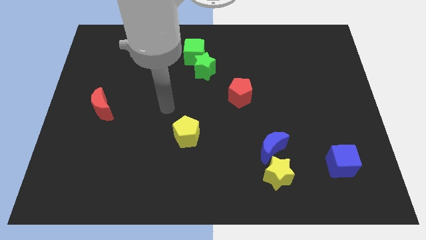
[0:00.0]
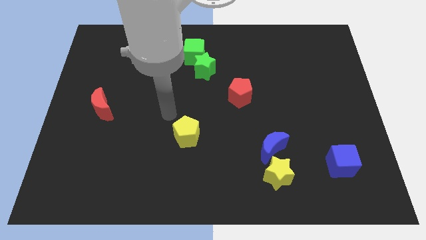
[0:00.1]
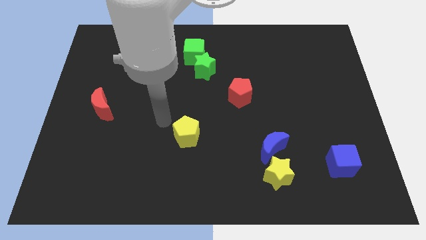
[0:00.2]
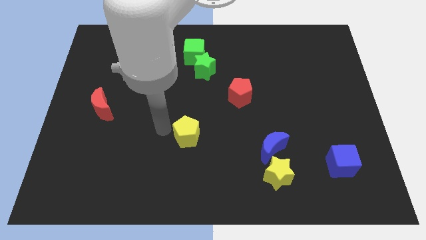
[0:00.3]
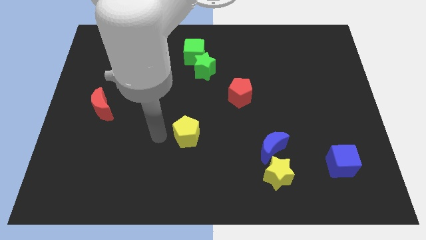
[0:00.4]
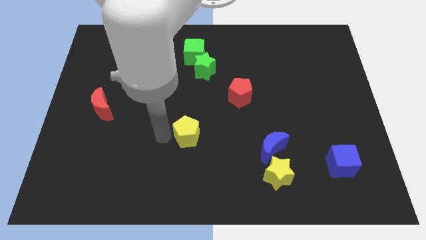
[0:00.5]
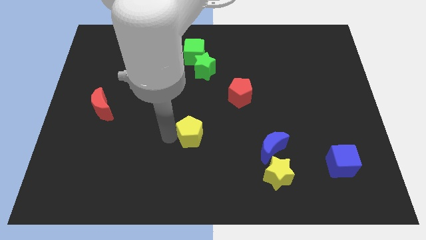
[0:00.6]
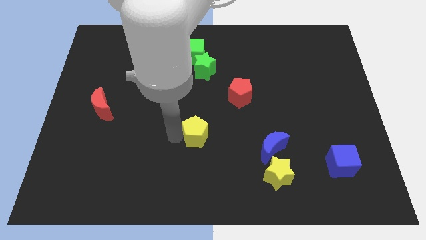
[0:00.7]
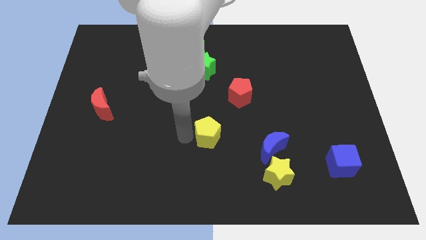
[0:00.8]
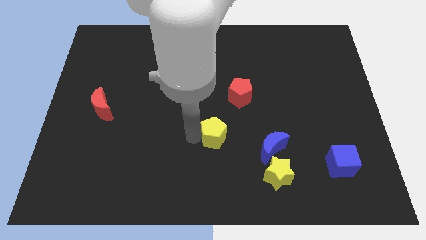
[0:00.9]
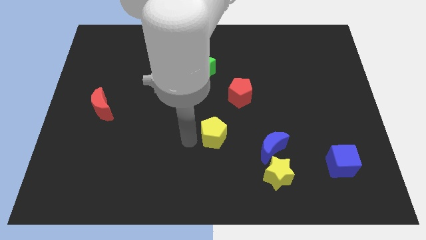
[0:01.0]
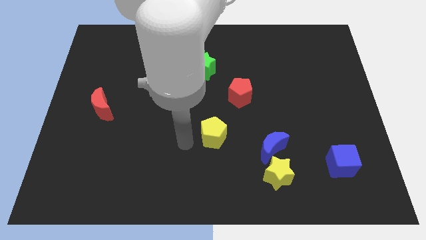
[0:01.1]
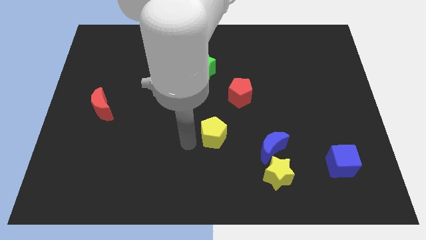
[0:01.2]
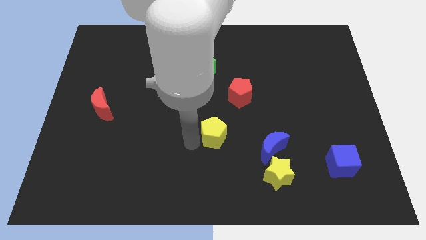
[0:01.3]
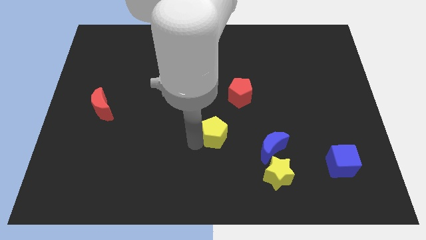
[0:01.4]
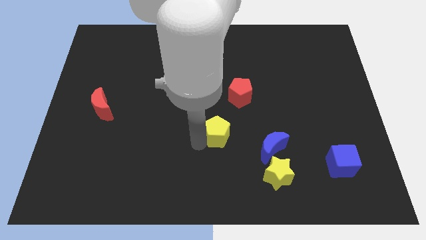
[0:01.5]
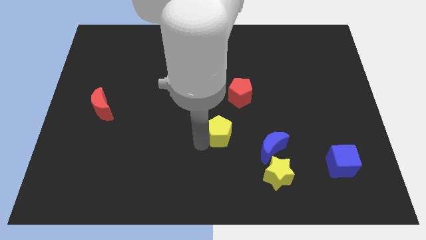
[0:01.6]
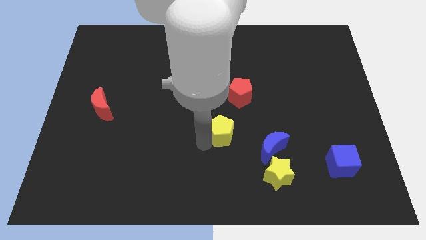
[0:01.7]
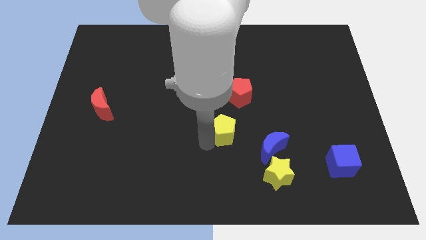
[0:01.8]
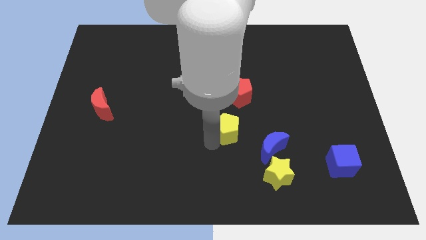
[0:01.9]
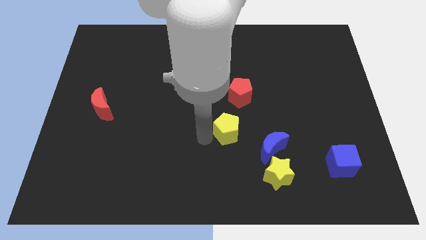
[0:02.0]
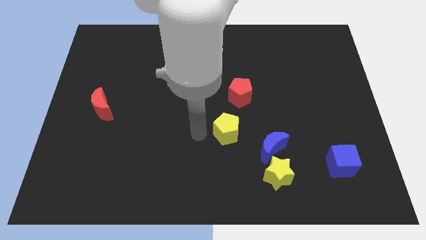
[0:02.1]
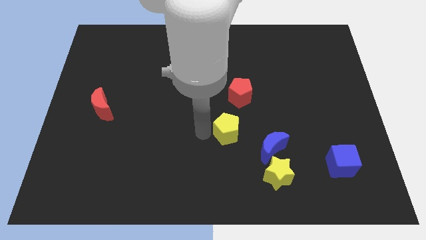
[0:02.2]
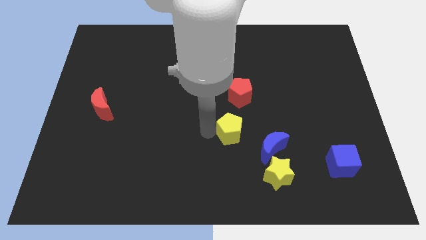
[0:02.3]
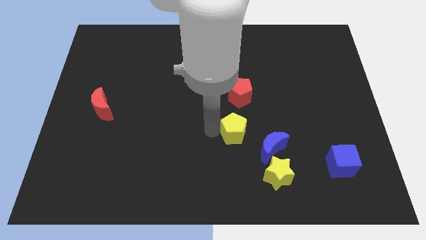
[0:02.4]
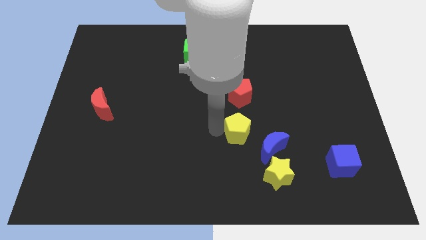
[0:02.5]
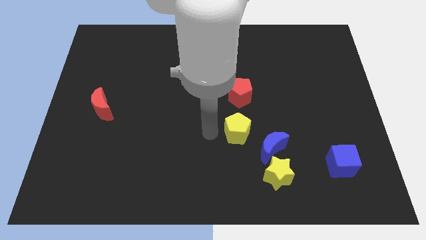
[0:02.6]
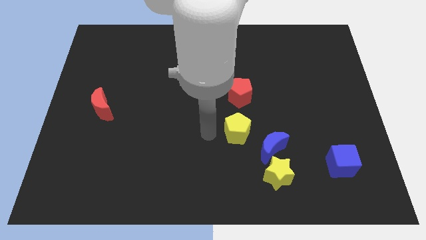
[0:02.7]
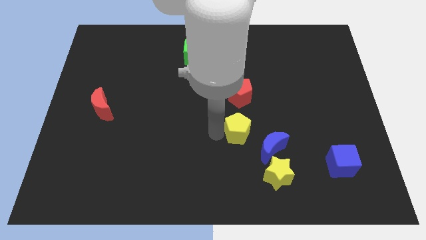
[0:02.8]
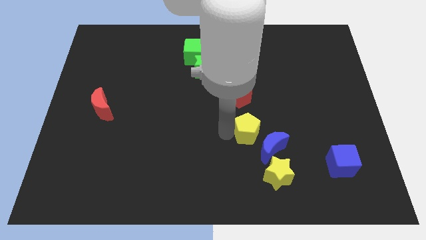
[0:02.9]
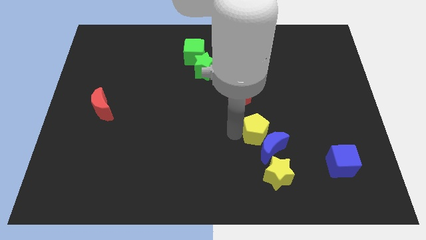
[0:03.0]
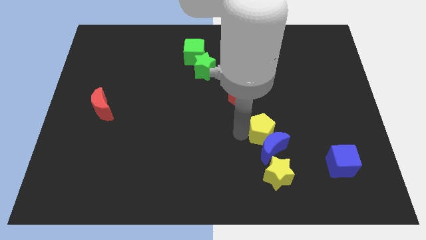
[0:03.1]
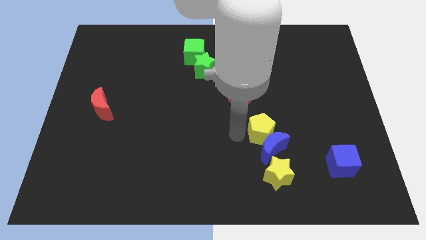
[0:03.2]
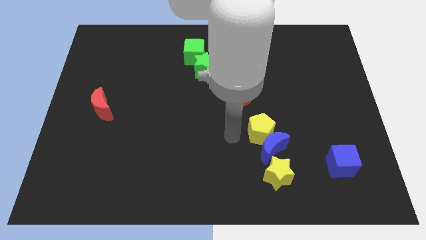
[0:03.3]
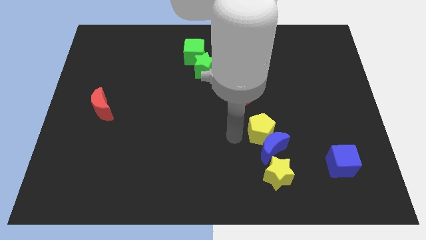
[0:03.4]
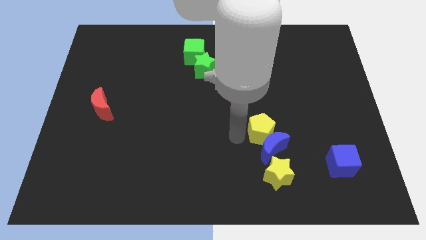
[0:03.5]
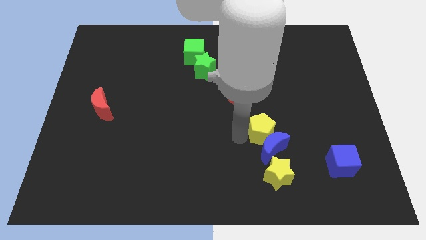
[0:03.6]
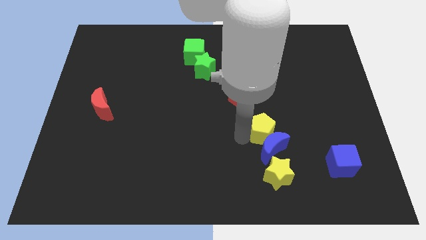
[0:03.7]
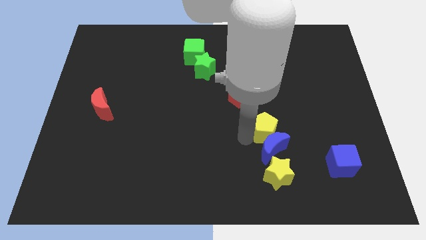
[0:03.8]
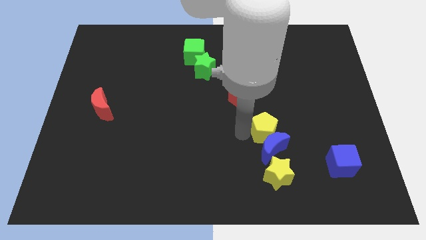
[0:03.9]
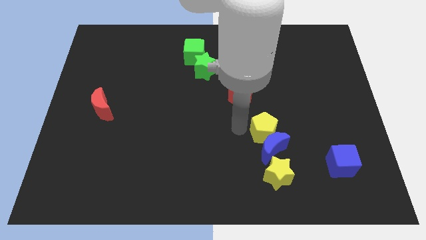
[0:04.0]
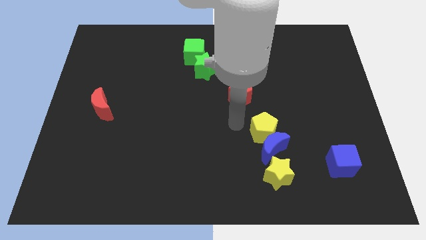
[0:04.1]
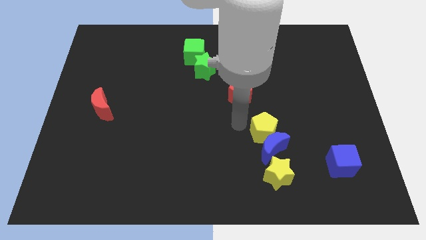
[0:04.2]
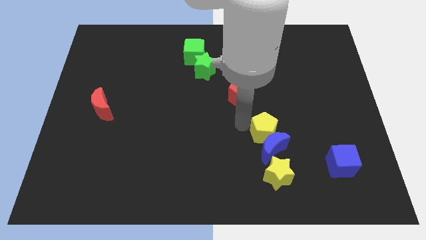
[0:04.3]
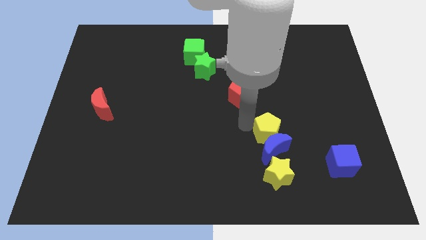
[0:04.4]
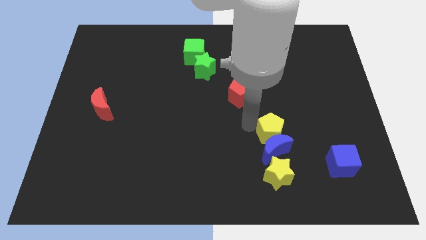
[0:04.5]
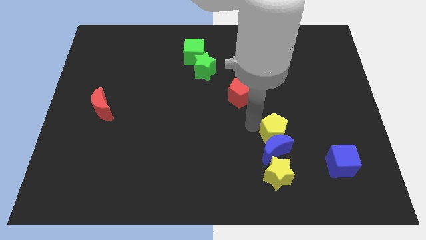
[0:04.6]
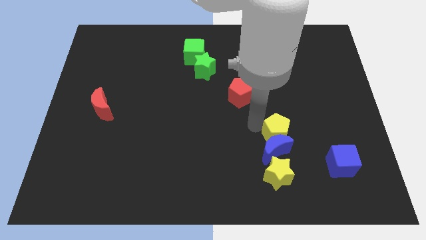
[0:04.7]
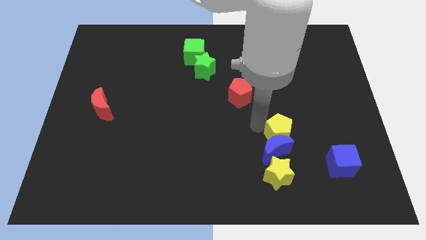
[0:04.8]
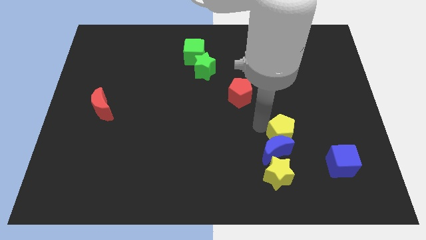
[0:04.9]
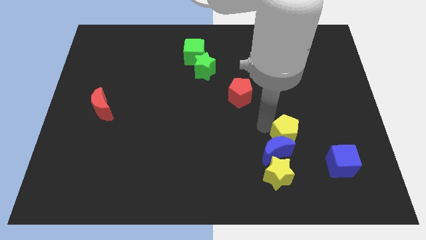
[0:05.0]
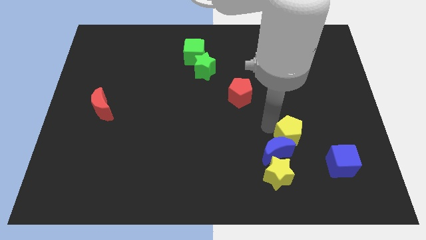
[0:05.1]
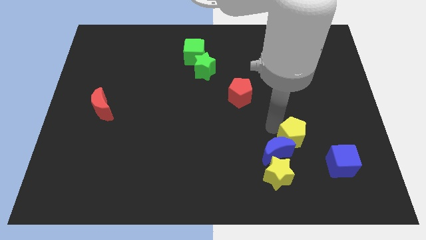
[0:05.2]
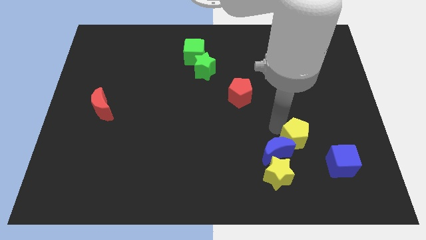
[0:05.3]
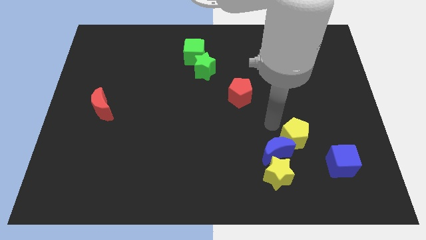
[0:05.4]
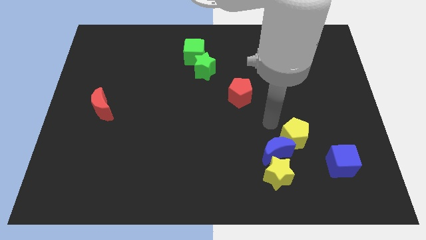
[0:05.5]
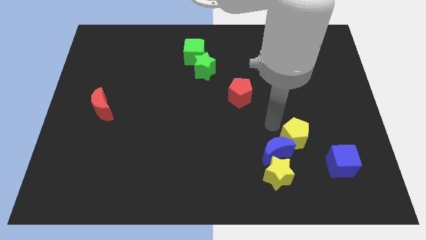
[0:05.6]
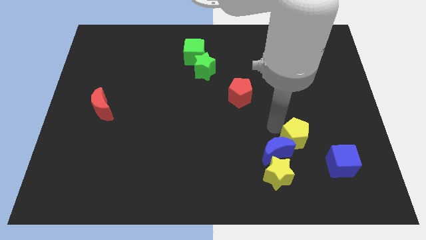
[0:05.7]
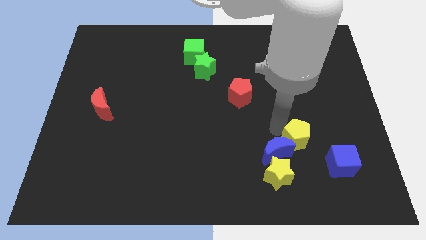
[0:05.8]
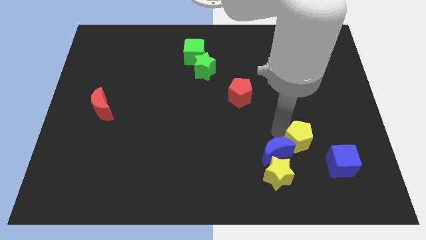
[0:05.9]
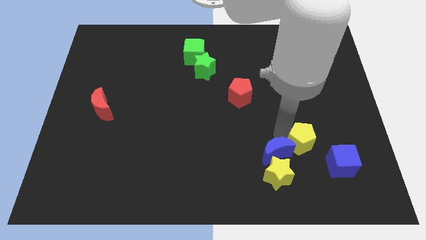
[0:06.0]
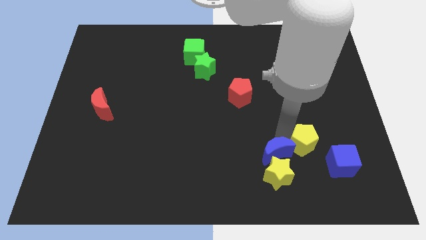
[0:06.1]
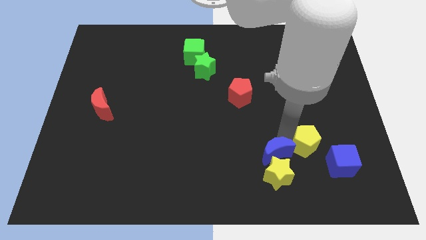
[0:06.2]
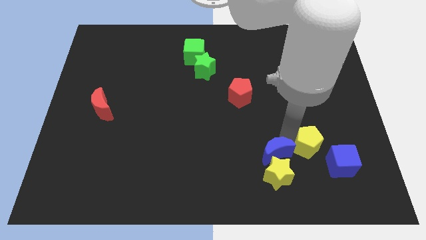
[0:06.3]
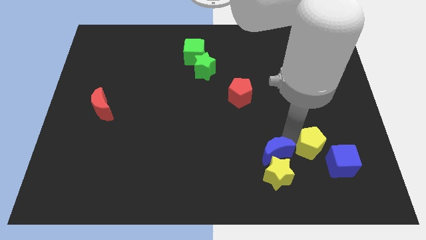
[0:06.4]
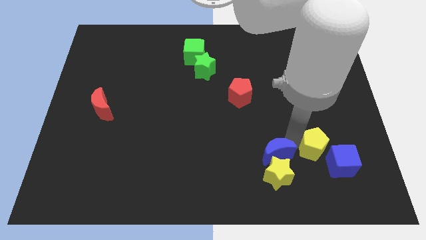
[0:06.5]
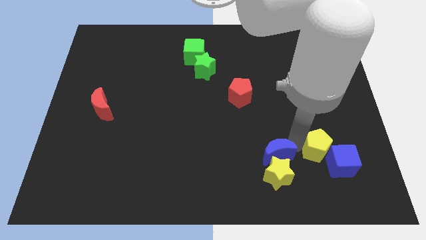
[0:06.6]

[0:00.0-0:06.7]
move the yellow pentagon next to the blue cube

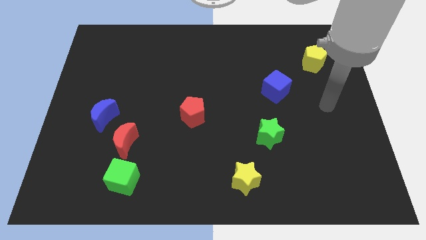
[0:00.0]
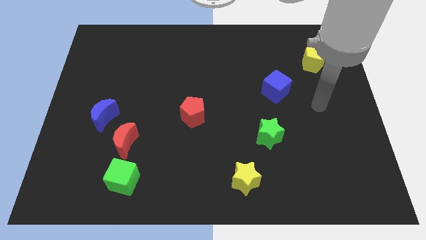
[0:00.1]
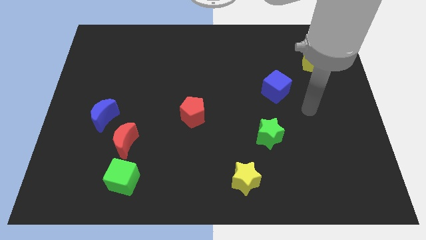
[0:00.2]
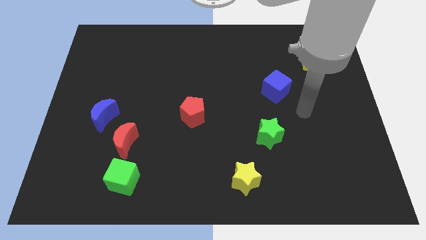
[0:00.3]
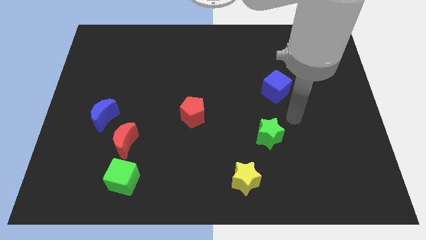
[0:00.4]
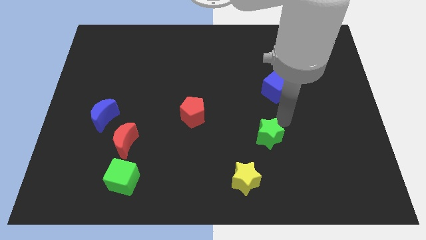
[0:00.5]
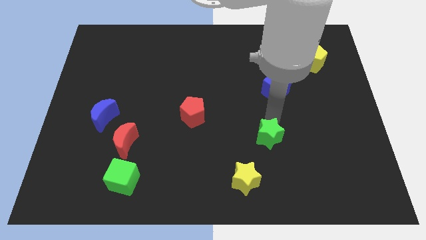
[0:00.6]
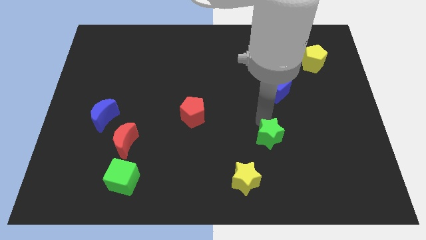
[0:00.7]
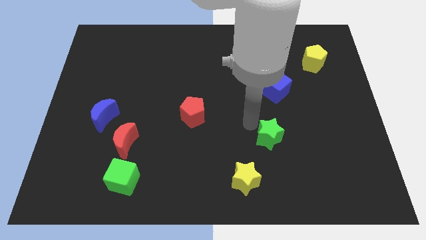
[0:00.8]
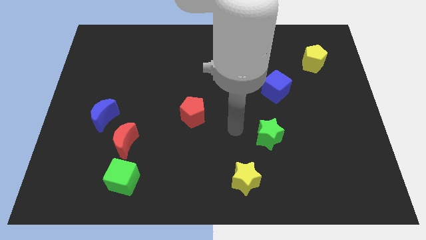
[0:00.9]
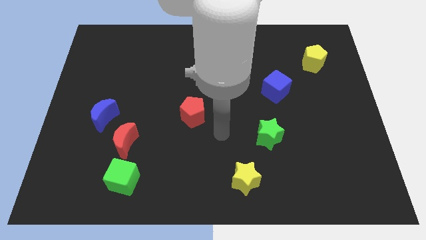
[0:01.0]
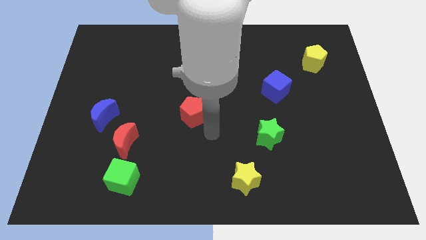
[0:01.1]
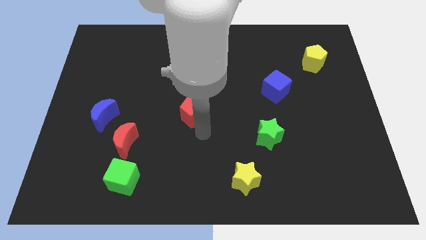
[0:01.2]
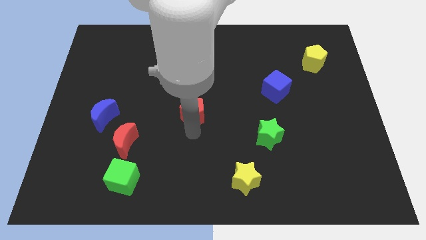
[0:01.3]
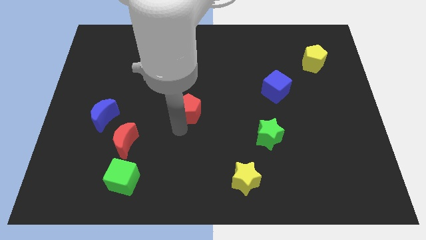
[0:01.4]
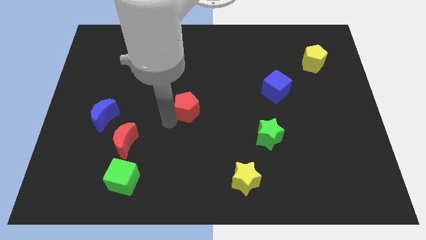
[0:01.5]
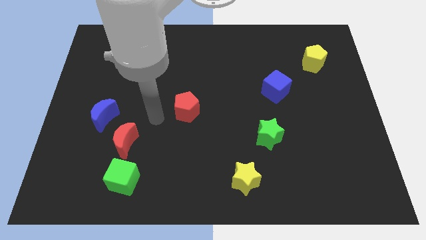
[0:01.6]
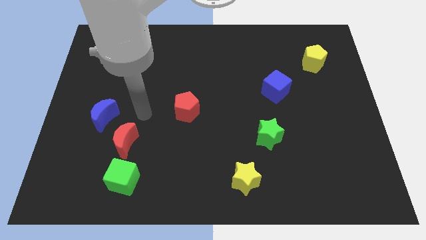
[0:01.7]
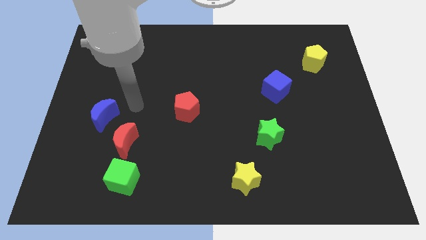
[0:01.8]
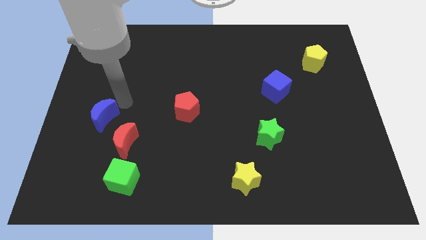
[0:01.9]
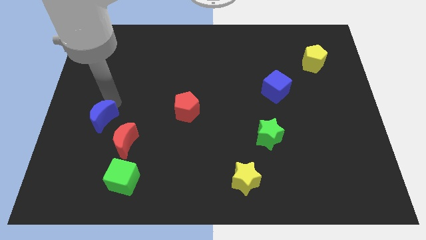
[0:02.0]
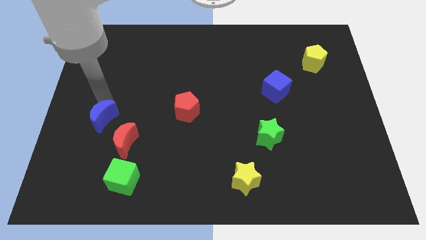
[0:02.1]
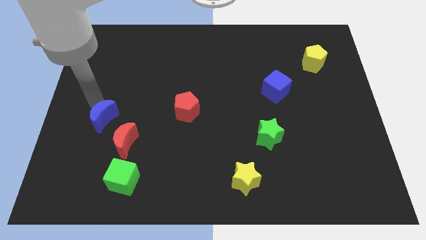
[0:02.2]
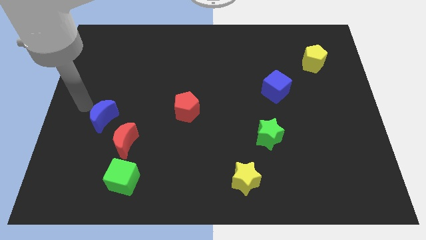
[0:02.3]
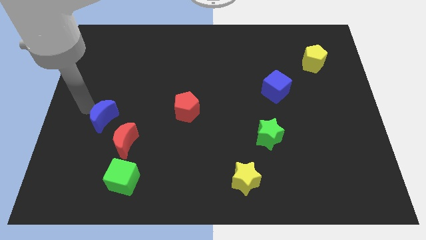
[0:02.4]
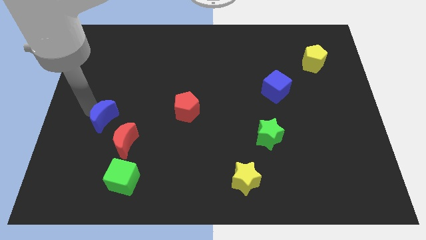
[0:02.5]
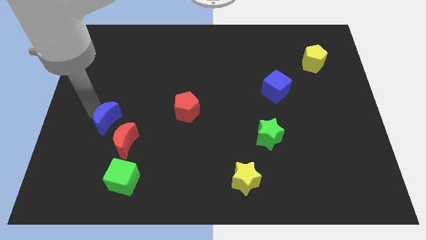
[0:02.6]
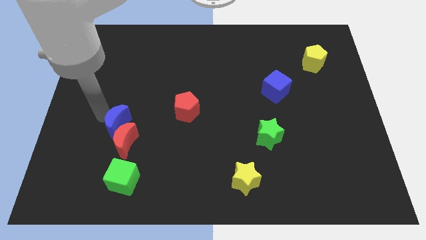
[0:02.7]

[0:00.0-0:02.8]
put the blue moon to the red moon
